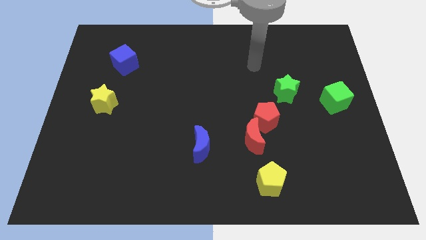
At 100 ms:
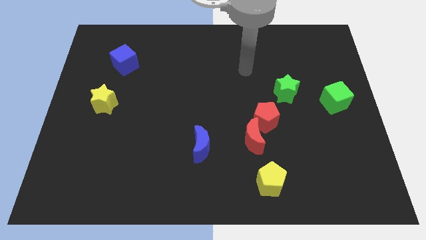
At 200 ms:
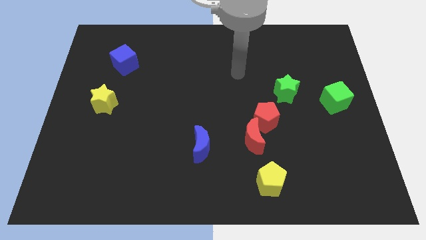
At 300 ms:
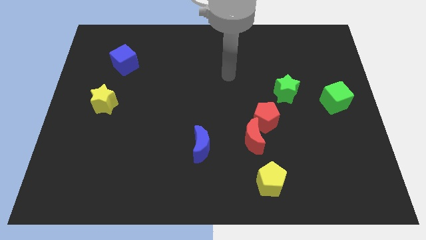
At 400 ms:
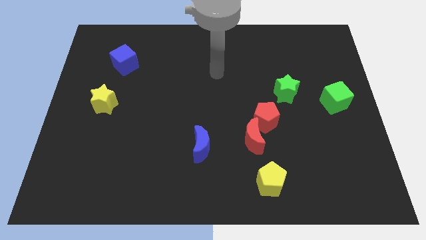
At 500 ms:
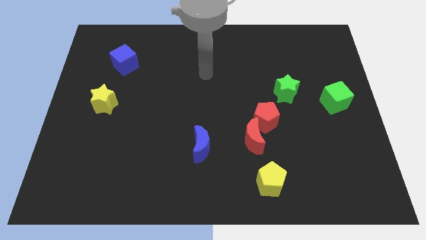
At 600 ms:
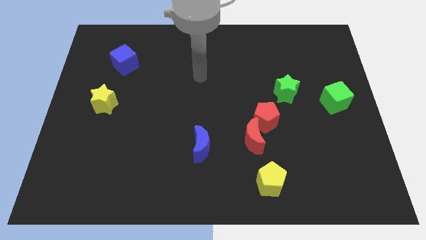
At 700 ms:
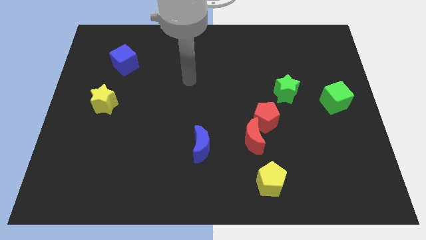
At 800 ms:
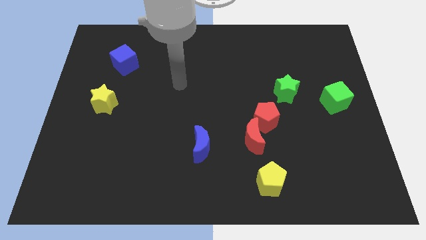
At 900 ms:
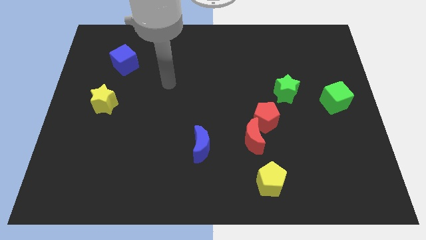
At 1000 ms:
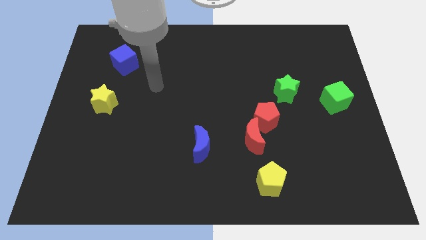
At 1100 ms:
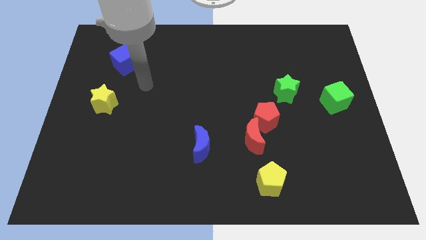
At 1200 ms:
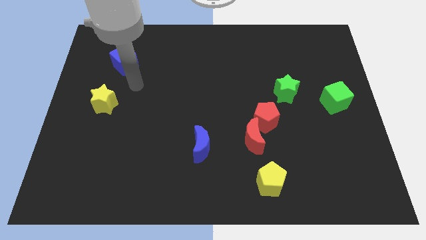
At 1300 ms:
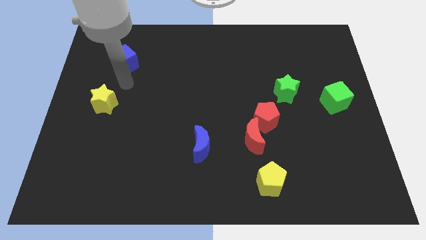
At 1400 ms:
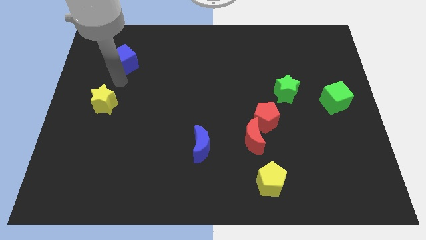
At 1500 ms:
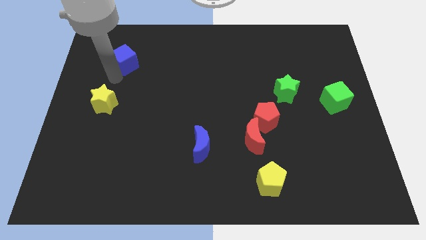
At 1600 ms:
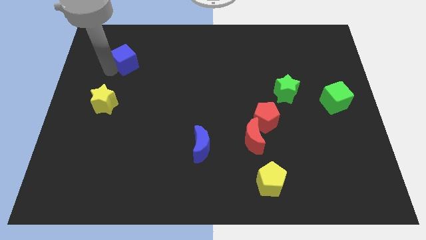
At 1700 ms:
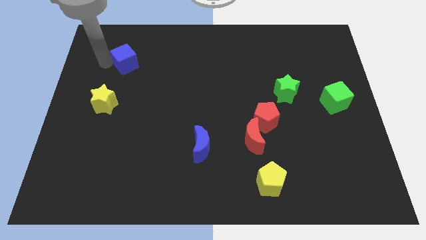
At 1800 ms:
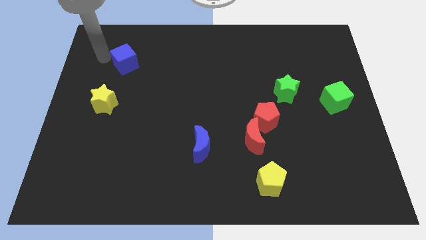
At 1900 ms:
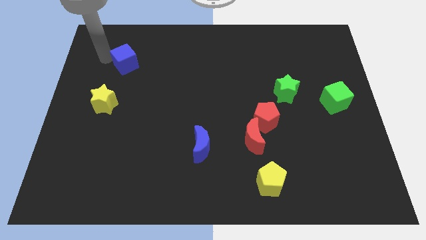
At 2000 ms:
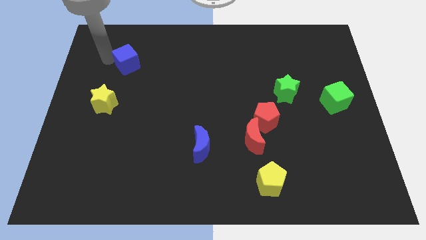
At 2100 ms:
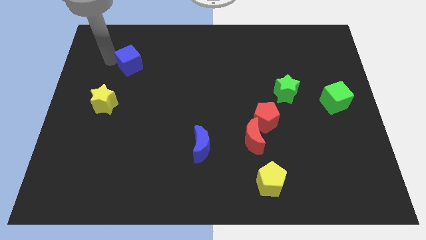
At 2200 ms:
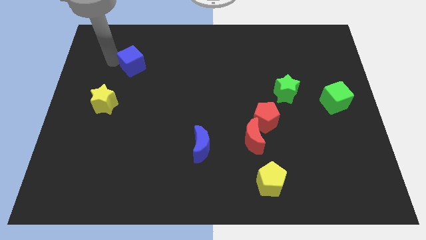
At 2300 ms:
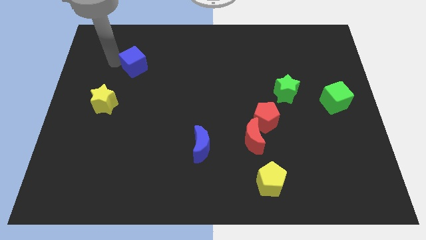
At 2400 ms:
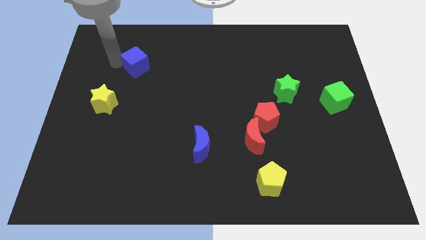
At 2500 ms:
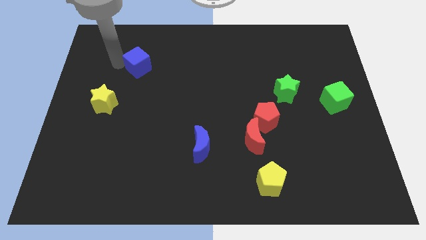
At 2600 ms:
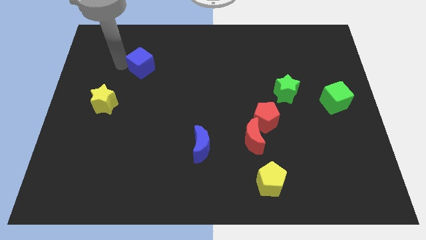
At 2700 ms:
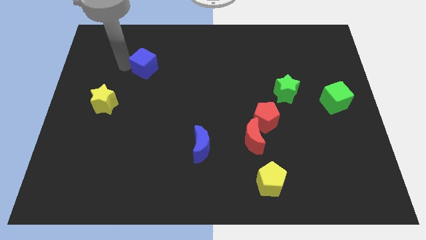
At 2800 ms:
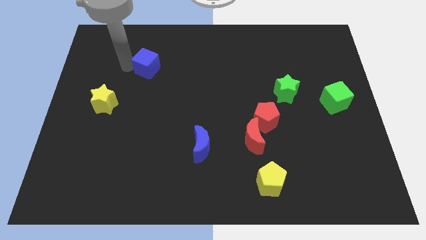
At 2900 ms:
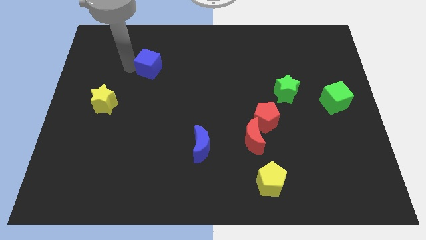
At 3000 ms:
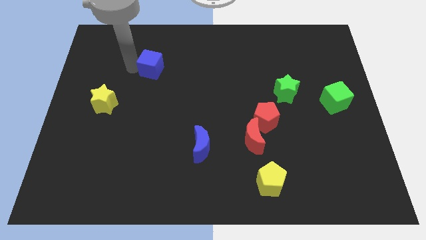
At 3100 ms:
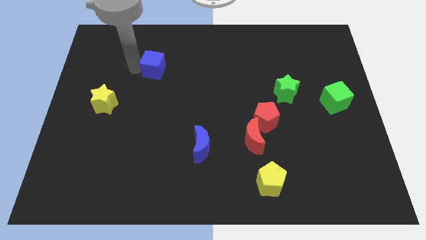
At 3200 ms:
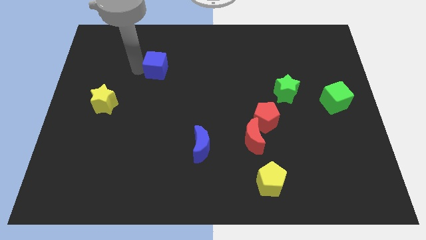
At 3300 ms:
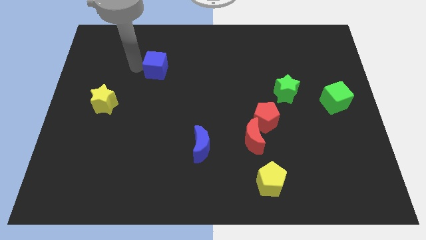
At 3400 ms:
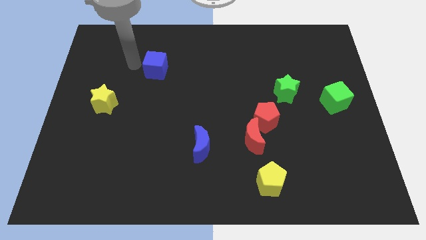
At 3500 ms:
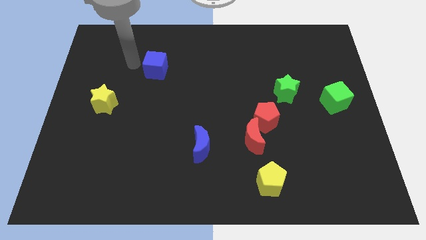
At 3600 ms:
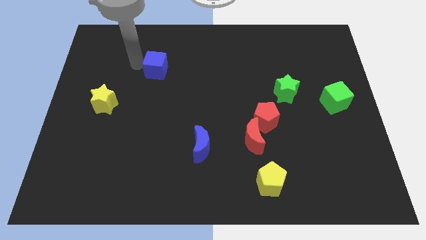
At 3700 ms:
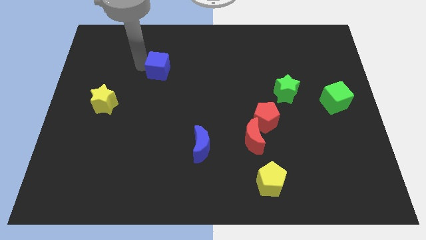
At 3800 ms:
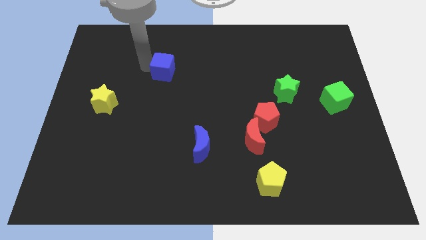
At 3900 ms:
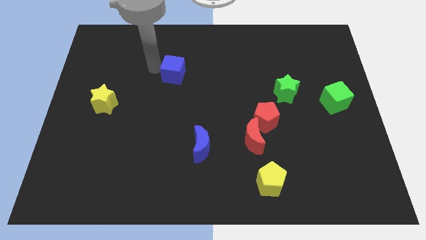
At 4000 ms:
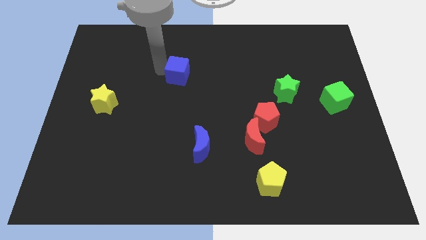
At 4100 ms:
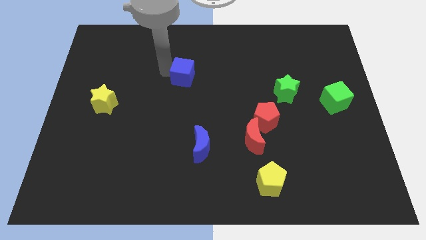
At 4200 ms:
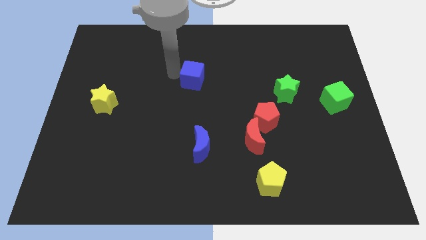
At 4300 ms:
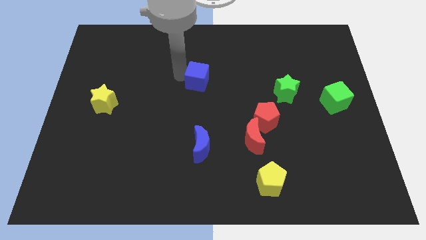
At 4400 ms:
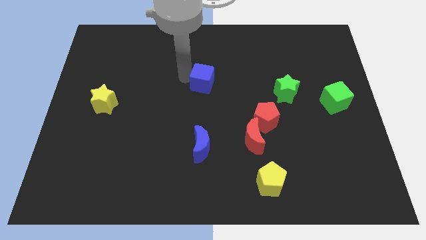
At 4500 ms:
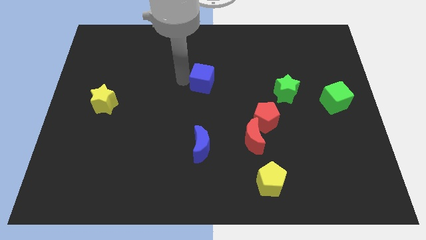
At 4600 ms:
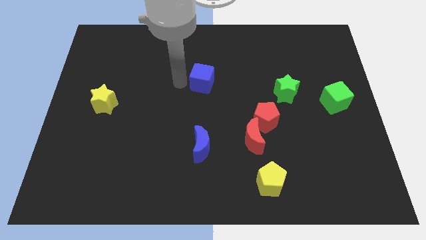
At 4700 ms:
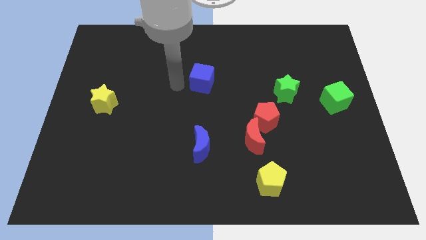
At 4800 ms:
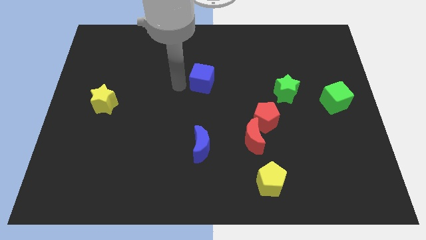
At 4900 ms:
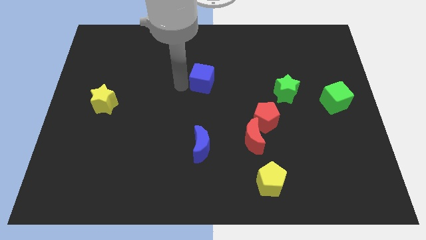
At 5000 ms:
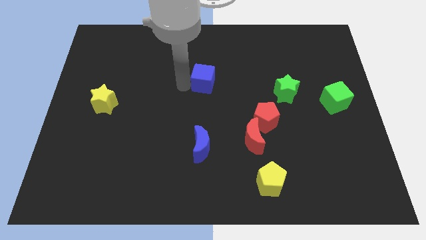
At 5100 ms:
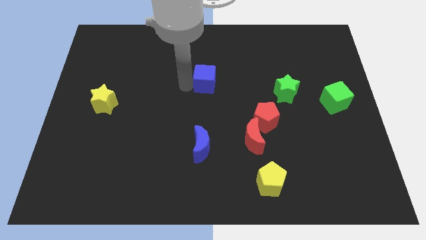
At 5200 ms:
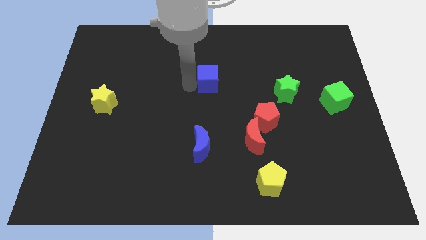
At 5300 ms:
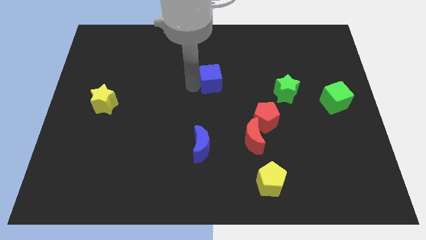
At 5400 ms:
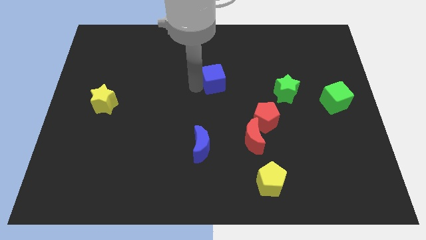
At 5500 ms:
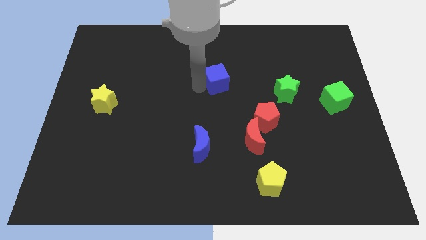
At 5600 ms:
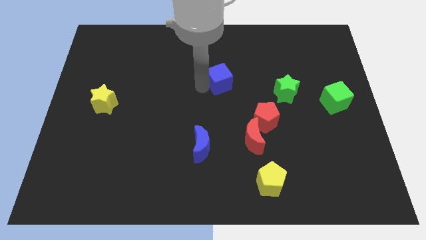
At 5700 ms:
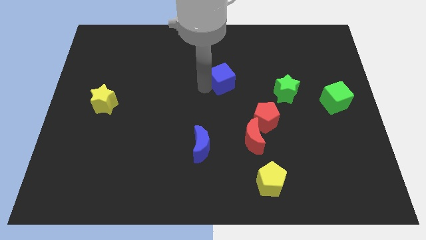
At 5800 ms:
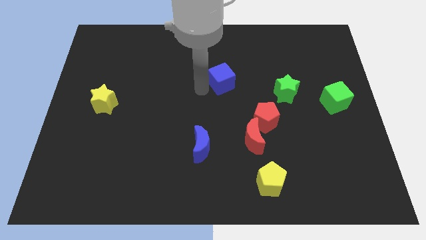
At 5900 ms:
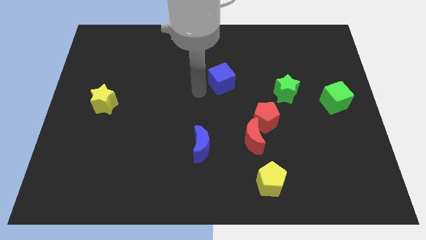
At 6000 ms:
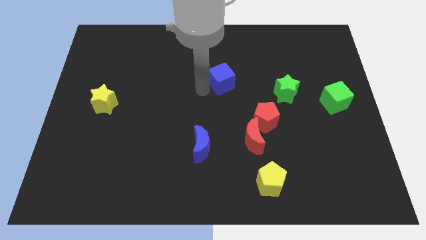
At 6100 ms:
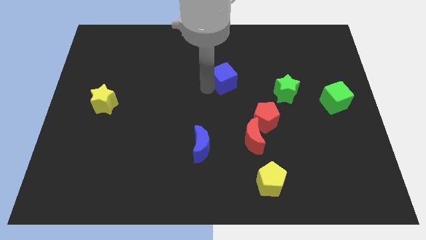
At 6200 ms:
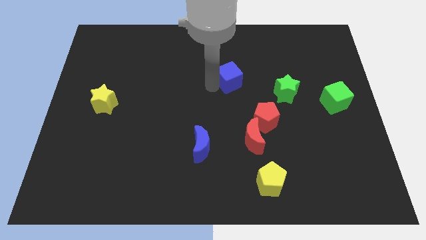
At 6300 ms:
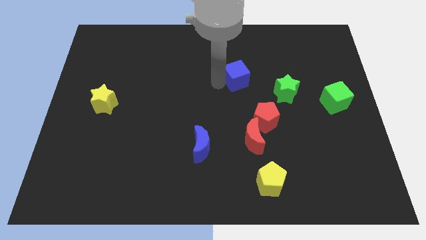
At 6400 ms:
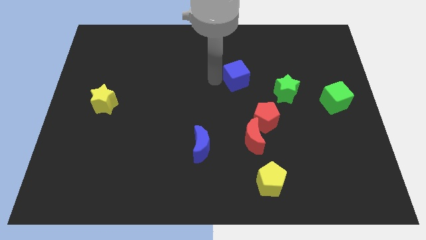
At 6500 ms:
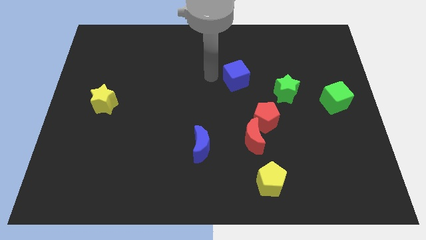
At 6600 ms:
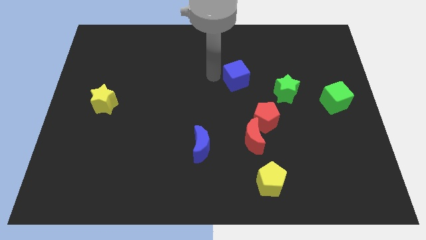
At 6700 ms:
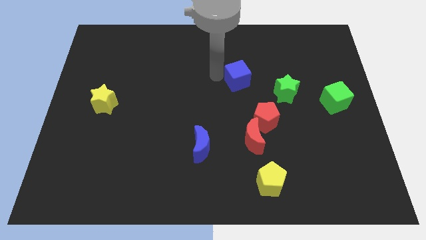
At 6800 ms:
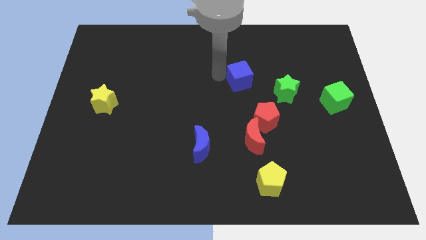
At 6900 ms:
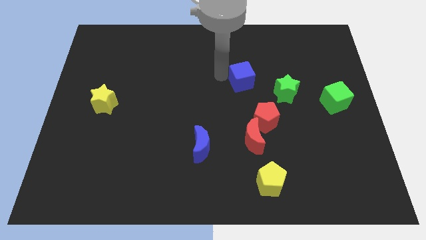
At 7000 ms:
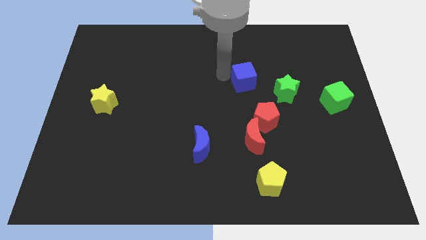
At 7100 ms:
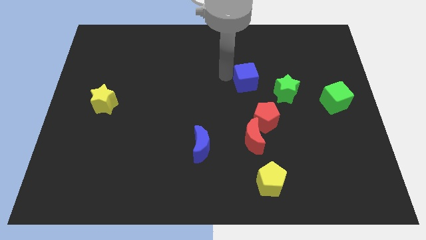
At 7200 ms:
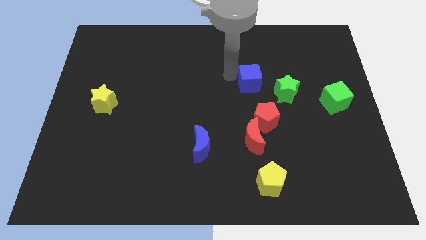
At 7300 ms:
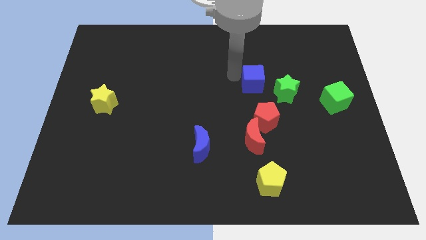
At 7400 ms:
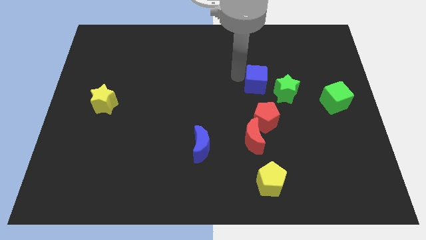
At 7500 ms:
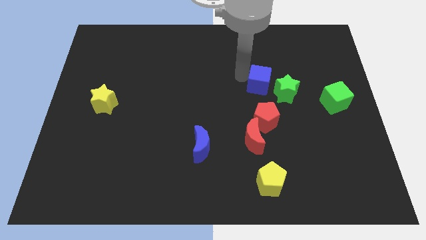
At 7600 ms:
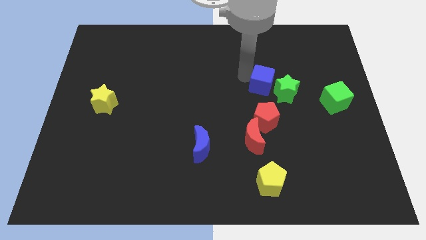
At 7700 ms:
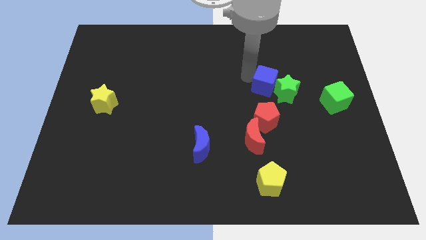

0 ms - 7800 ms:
push the blue cube next to the green star

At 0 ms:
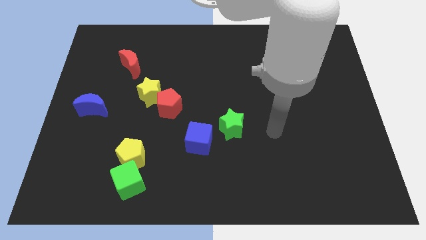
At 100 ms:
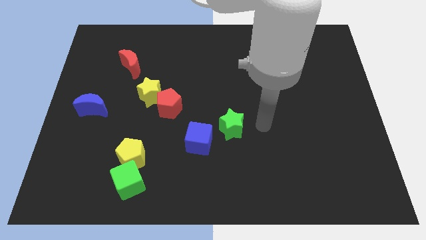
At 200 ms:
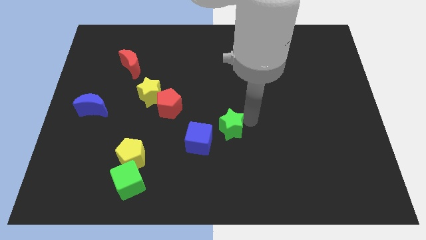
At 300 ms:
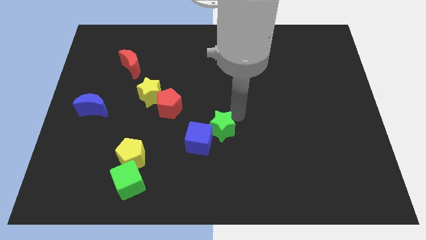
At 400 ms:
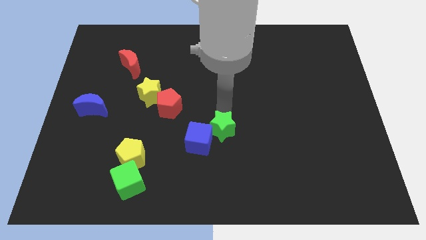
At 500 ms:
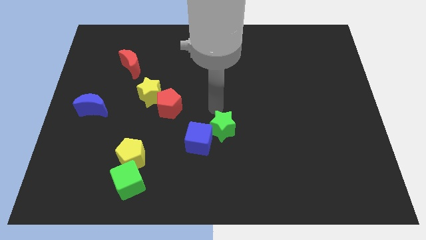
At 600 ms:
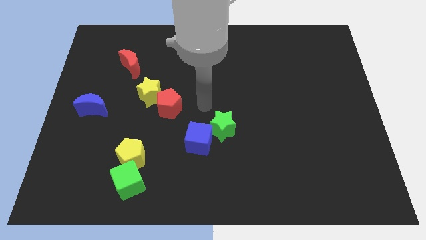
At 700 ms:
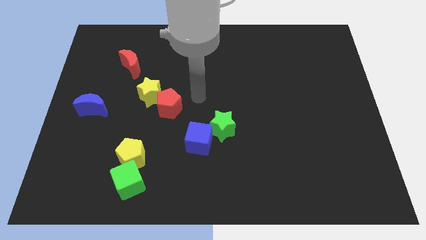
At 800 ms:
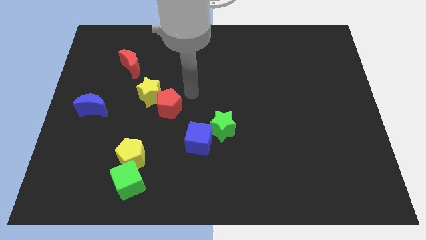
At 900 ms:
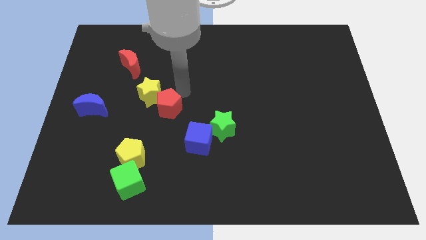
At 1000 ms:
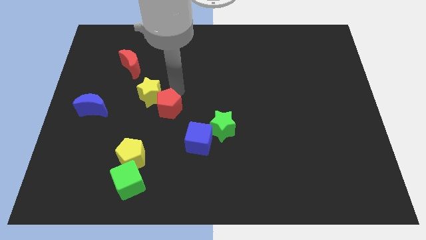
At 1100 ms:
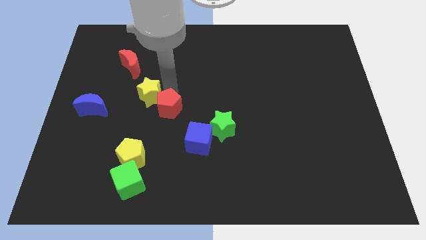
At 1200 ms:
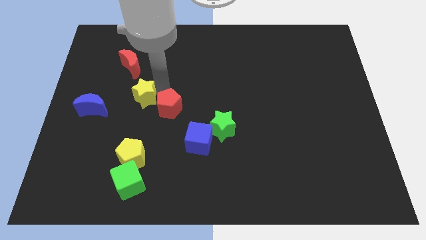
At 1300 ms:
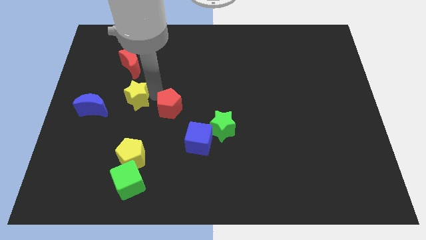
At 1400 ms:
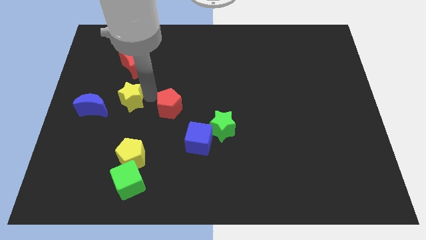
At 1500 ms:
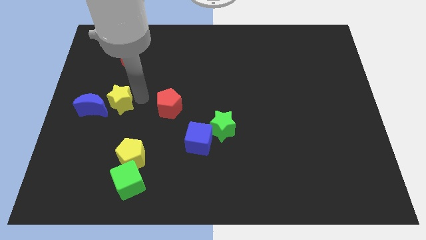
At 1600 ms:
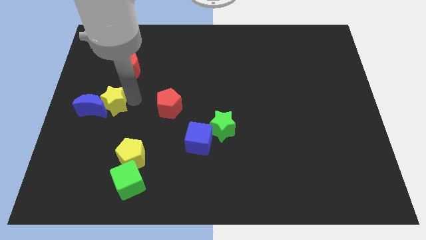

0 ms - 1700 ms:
put the yellow star towards the blue moon
